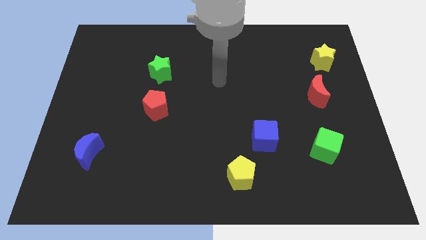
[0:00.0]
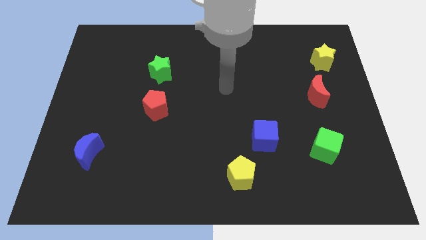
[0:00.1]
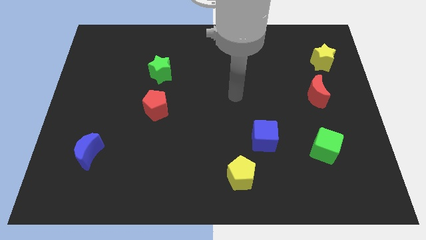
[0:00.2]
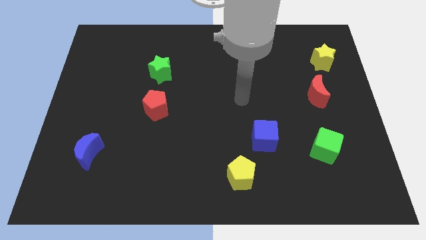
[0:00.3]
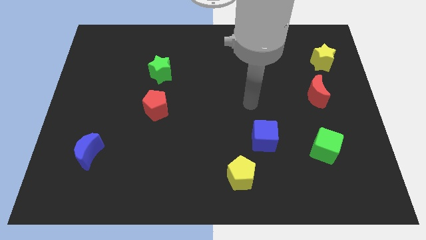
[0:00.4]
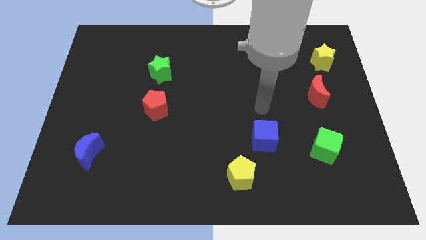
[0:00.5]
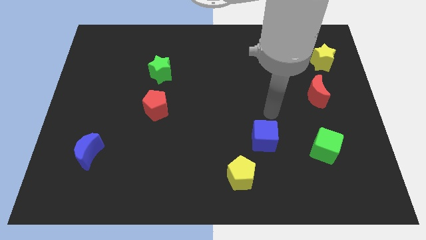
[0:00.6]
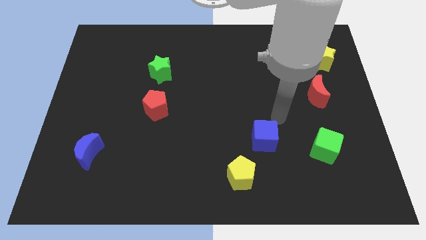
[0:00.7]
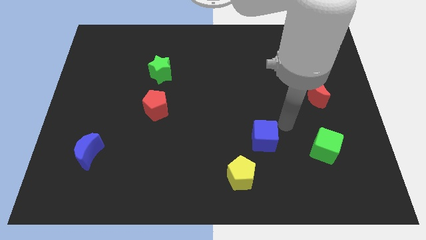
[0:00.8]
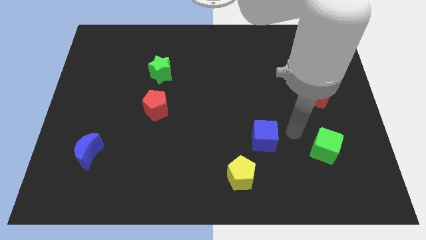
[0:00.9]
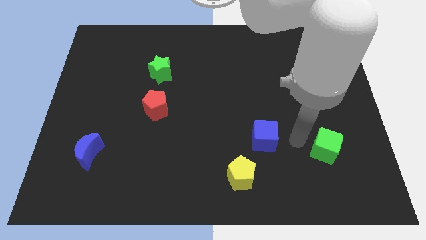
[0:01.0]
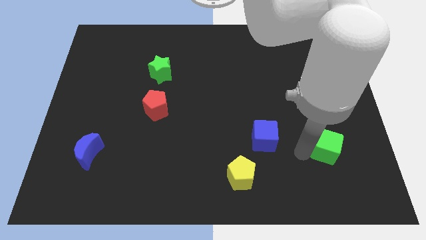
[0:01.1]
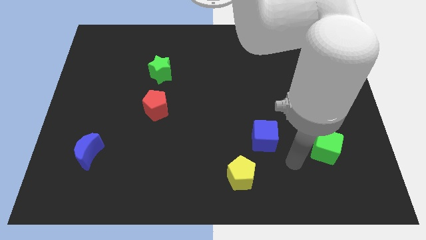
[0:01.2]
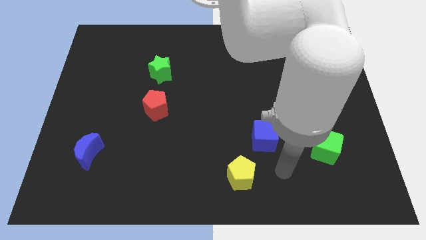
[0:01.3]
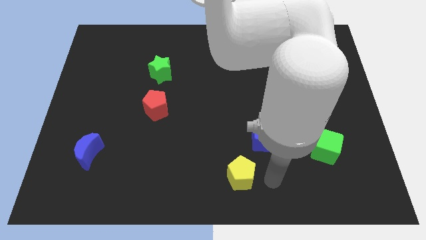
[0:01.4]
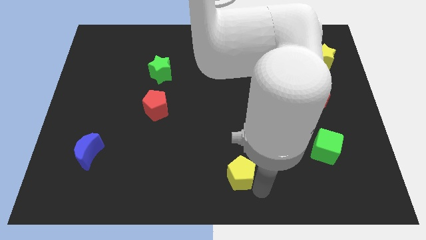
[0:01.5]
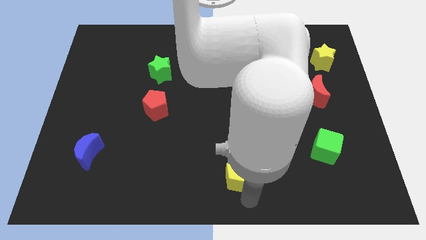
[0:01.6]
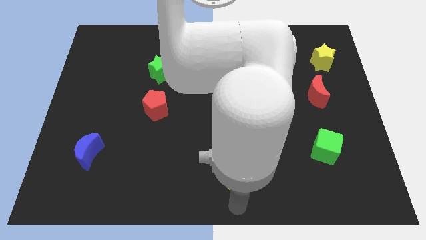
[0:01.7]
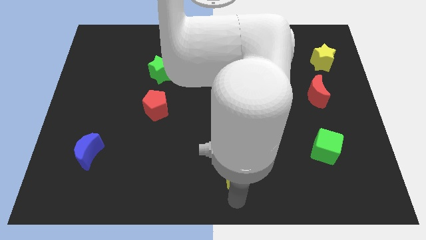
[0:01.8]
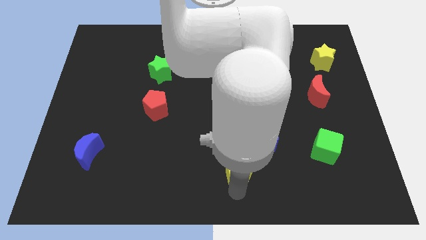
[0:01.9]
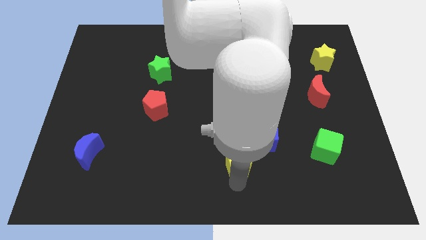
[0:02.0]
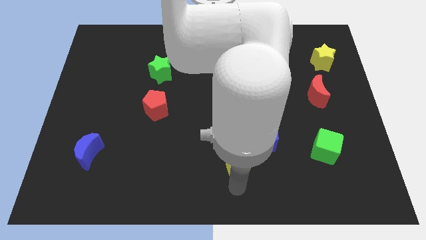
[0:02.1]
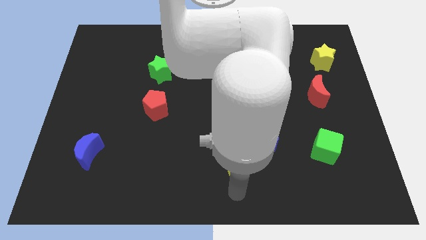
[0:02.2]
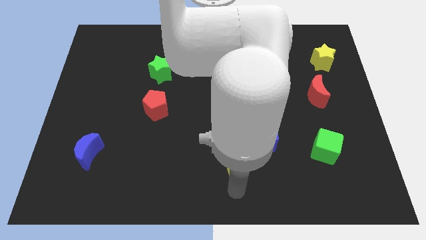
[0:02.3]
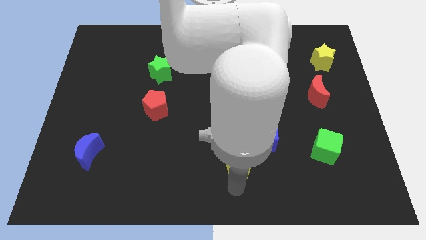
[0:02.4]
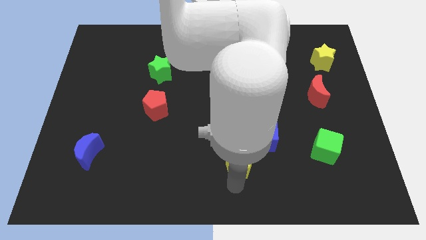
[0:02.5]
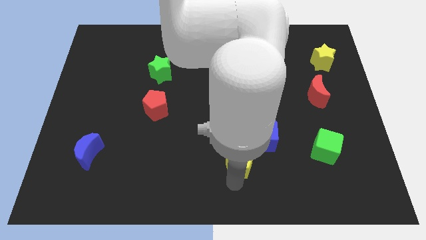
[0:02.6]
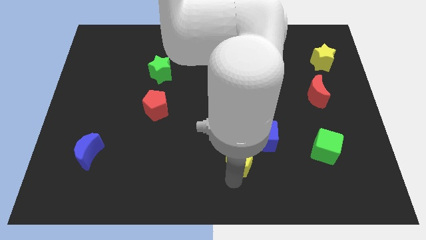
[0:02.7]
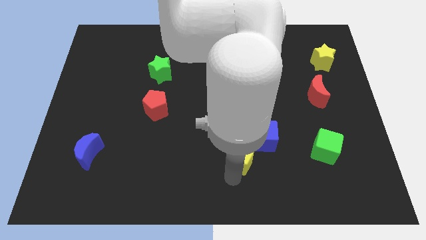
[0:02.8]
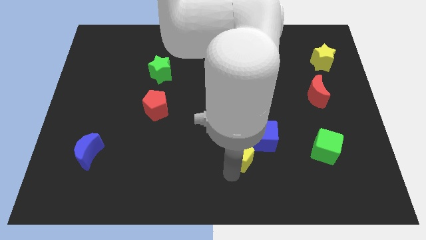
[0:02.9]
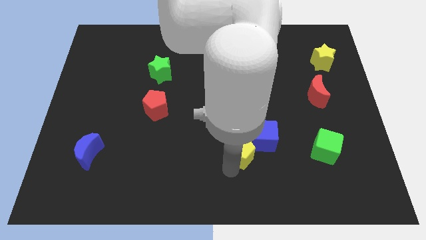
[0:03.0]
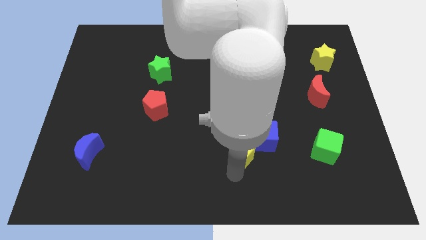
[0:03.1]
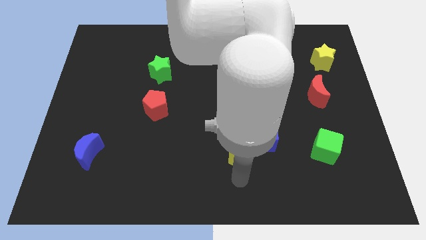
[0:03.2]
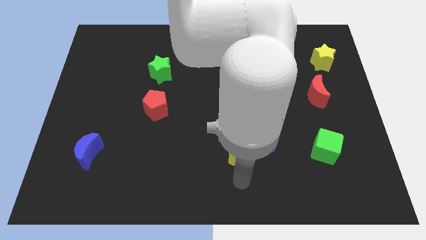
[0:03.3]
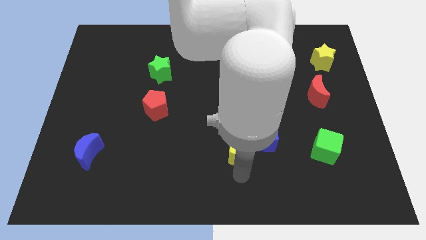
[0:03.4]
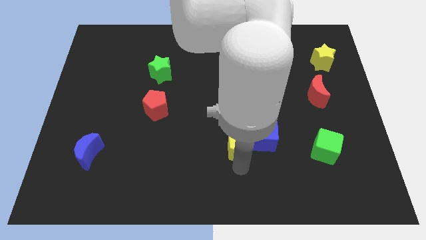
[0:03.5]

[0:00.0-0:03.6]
push the yellow pentagon a little upwards

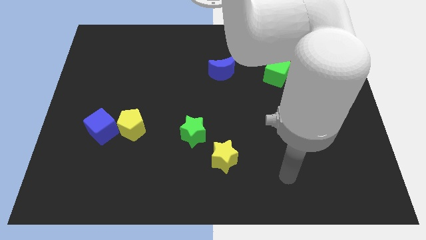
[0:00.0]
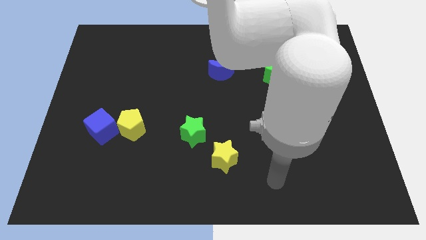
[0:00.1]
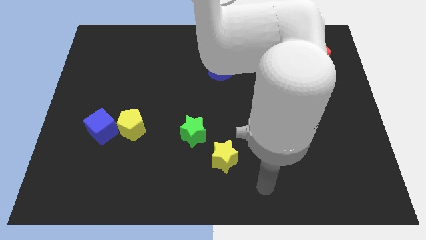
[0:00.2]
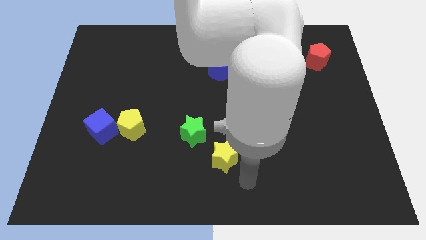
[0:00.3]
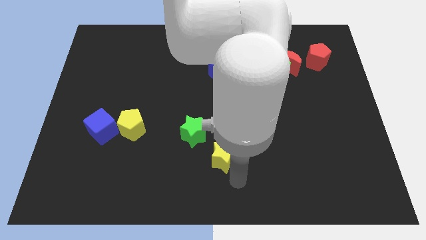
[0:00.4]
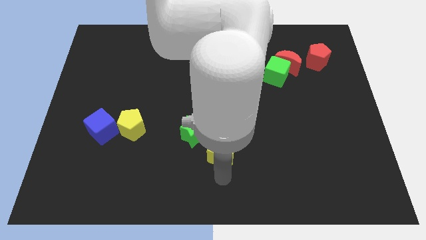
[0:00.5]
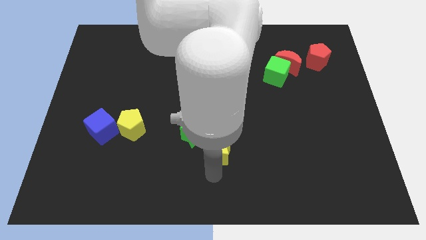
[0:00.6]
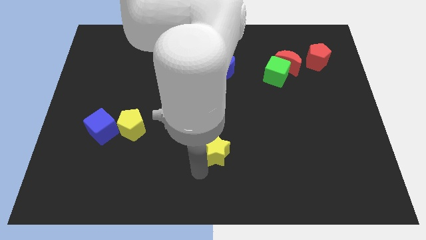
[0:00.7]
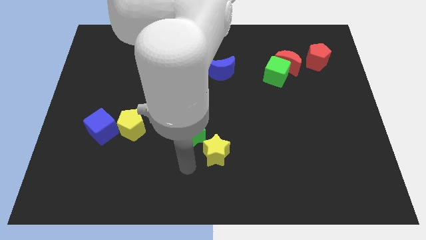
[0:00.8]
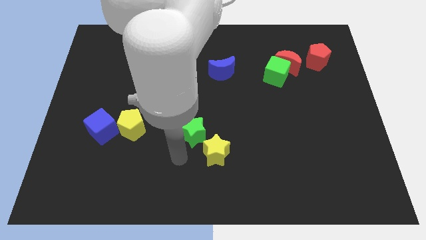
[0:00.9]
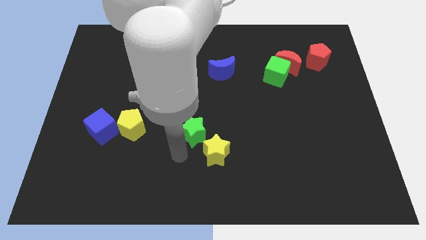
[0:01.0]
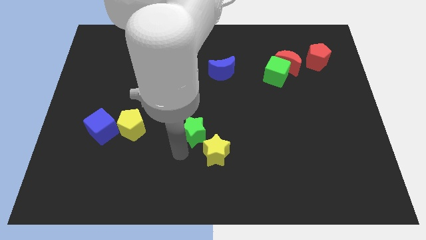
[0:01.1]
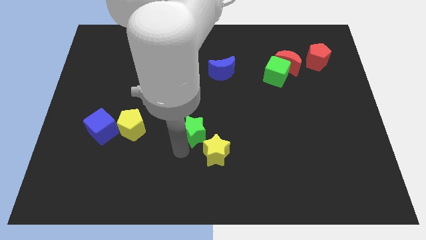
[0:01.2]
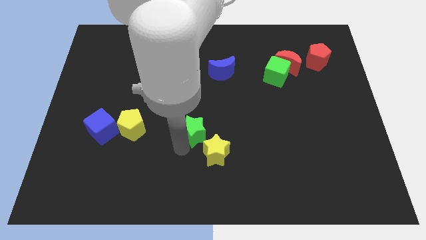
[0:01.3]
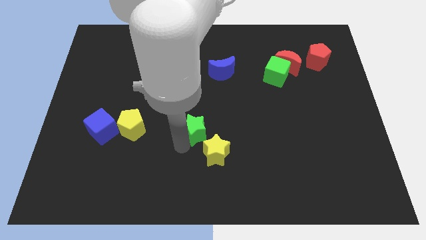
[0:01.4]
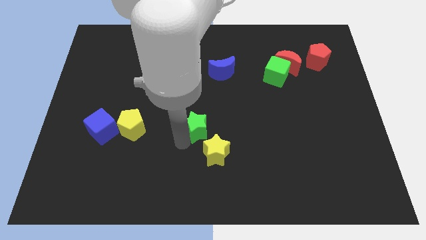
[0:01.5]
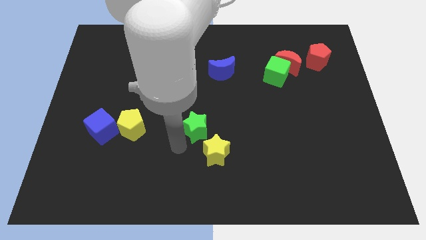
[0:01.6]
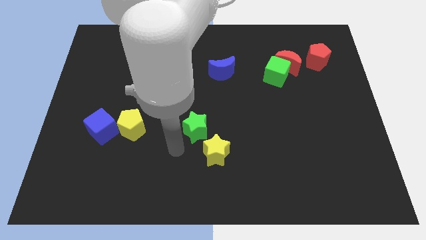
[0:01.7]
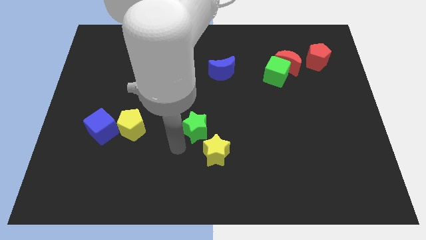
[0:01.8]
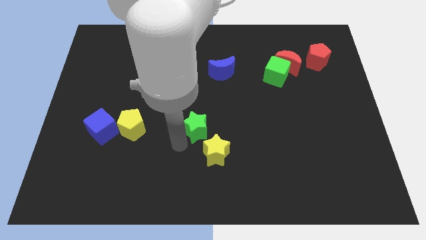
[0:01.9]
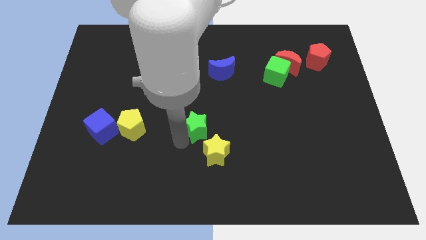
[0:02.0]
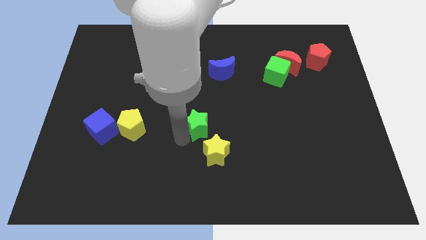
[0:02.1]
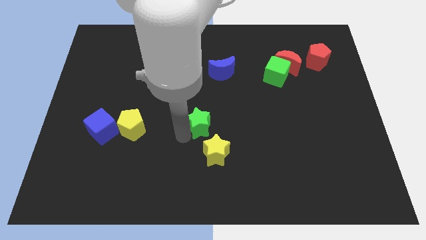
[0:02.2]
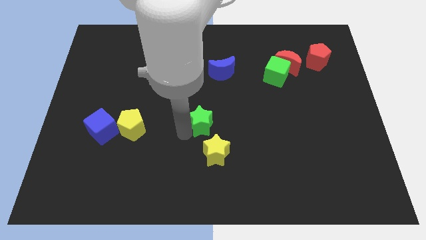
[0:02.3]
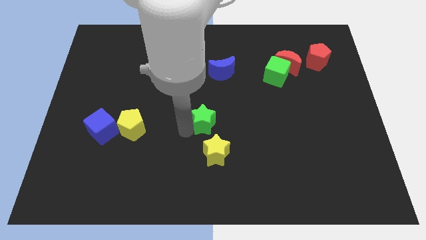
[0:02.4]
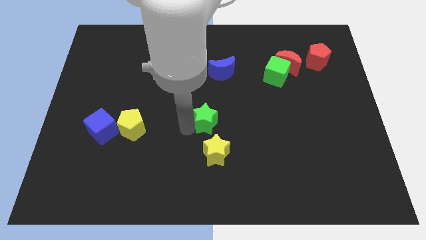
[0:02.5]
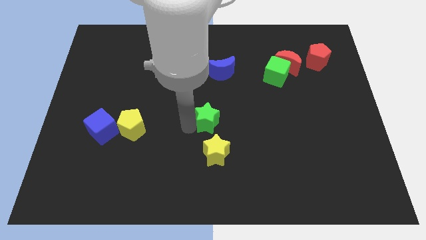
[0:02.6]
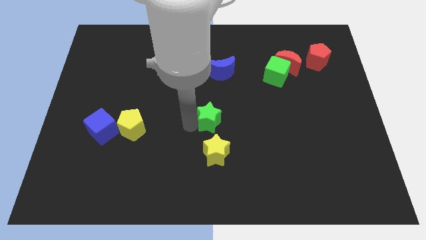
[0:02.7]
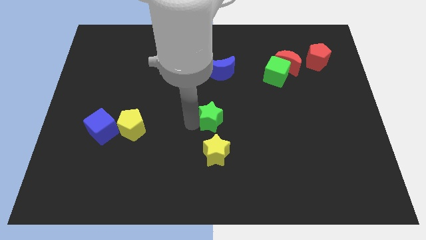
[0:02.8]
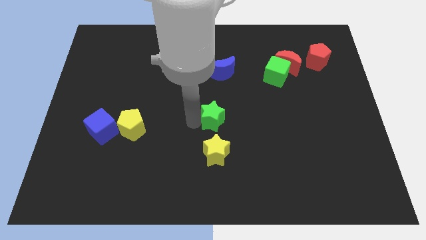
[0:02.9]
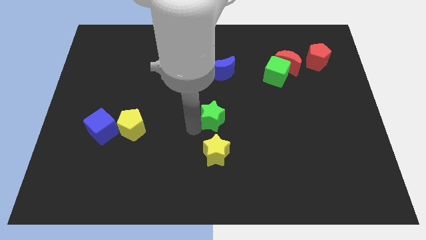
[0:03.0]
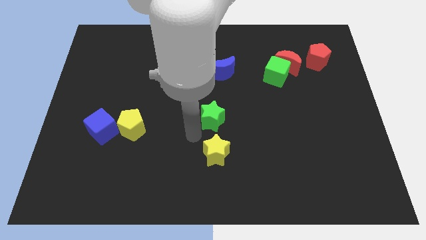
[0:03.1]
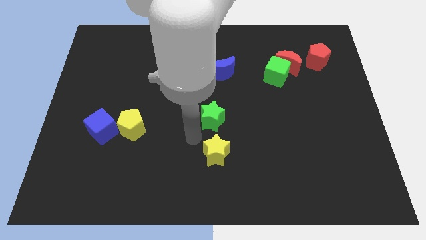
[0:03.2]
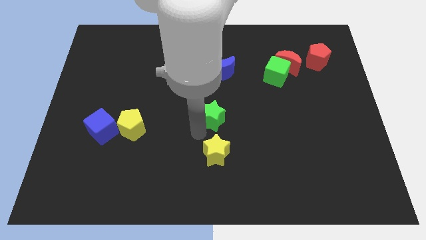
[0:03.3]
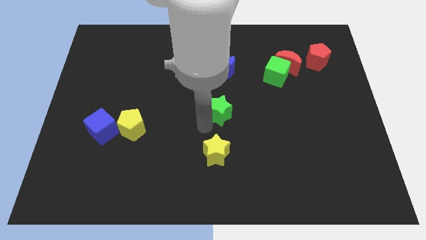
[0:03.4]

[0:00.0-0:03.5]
slightly slide the green star up and right

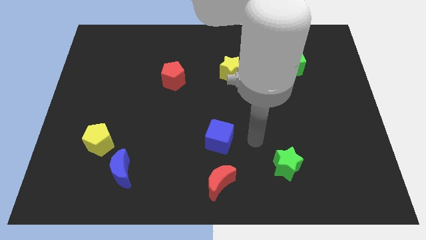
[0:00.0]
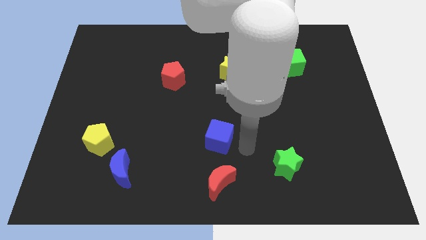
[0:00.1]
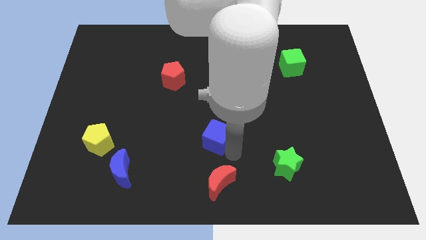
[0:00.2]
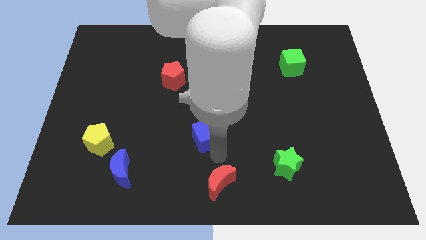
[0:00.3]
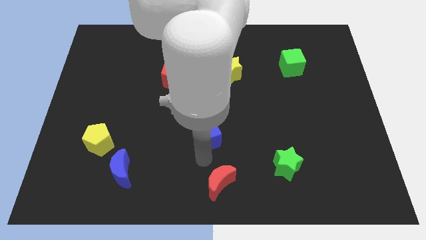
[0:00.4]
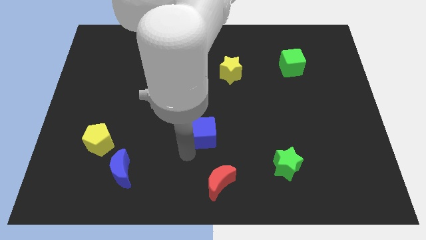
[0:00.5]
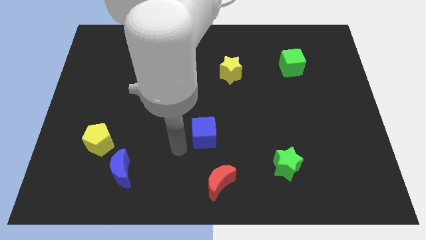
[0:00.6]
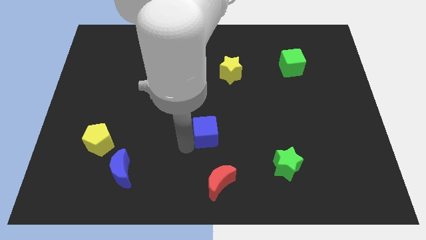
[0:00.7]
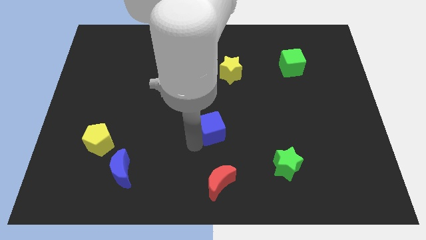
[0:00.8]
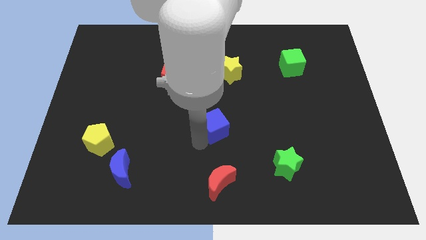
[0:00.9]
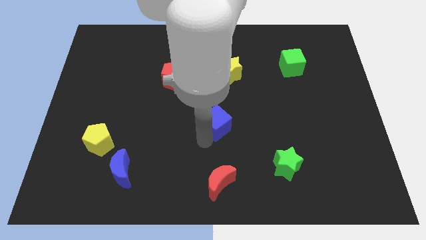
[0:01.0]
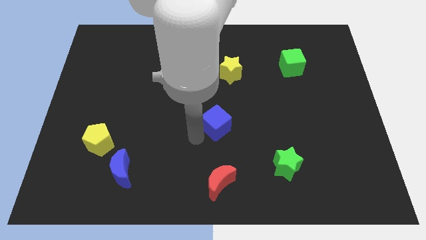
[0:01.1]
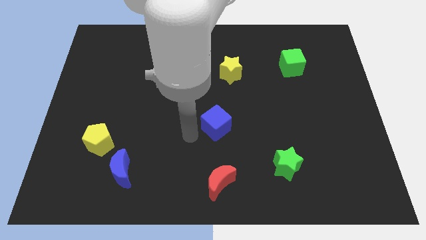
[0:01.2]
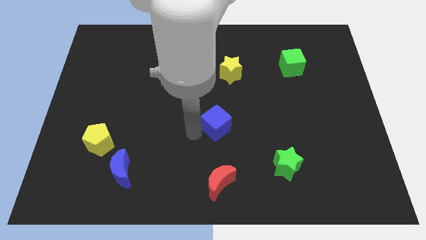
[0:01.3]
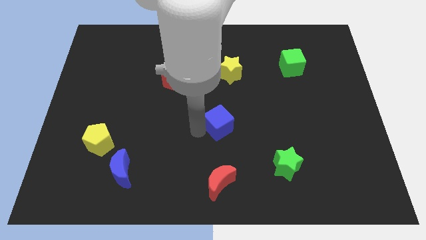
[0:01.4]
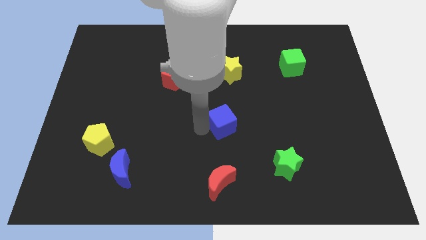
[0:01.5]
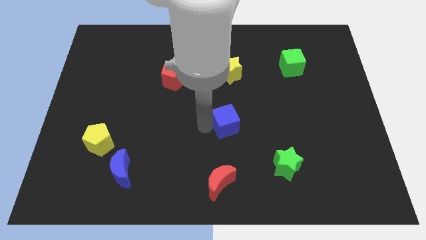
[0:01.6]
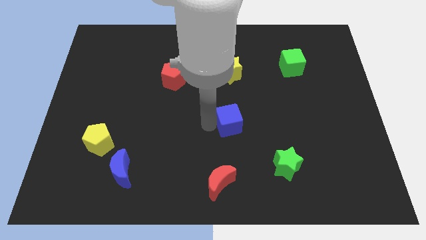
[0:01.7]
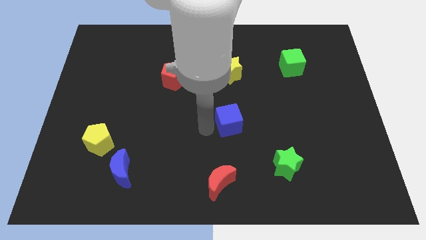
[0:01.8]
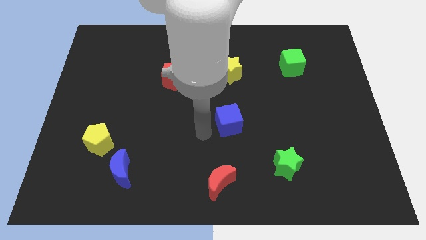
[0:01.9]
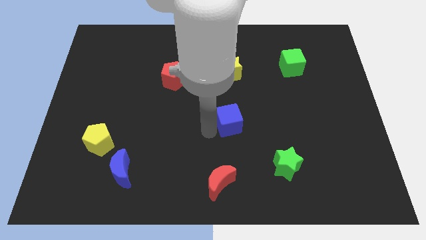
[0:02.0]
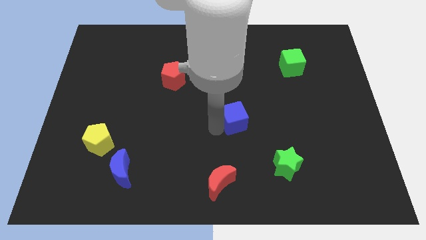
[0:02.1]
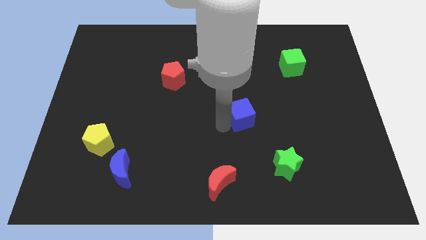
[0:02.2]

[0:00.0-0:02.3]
slightly move the blue cube up and to the right
